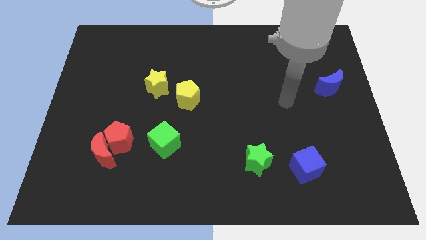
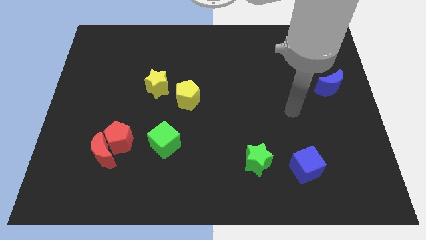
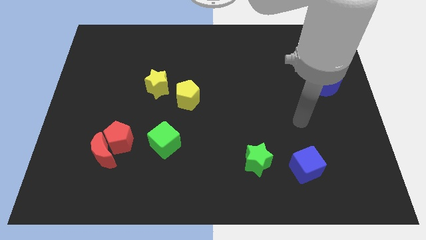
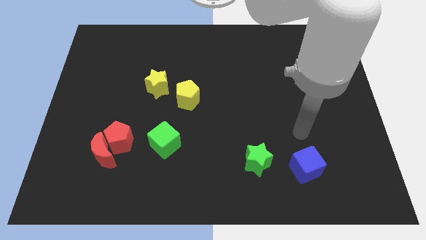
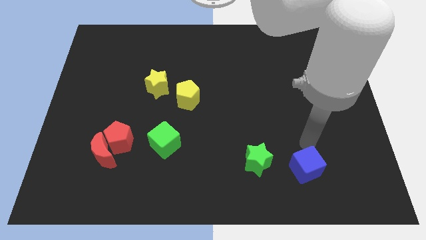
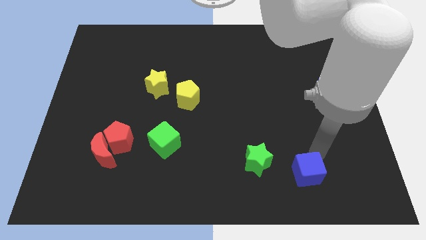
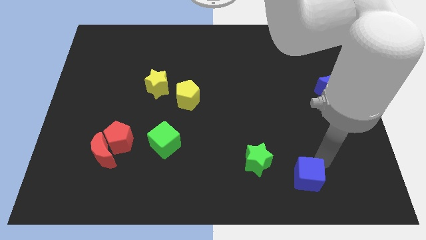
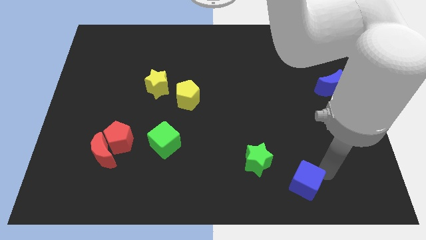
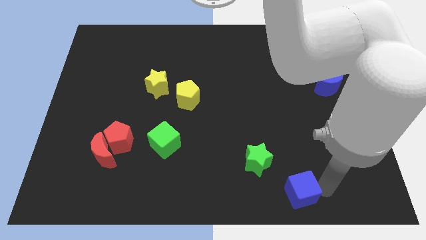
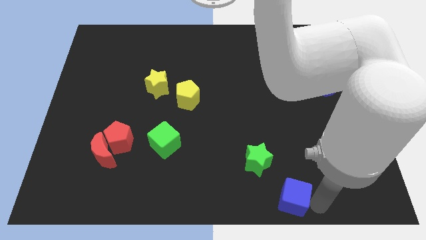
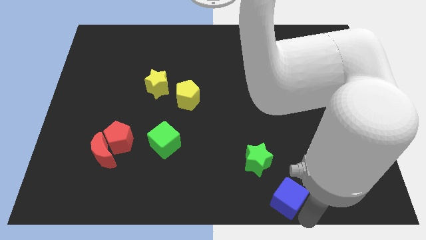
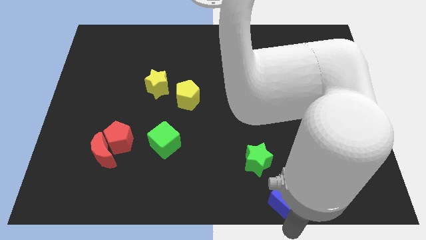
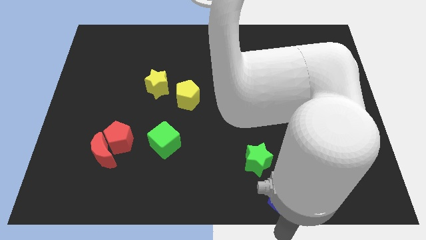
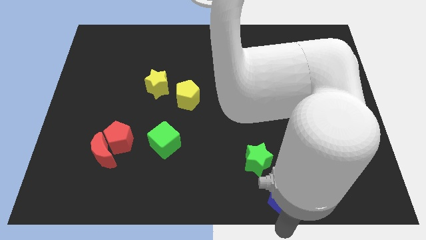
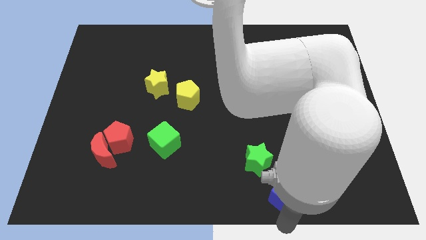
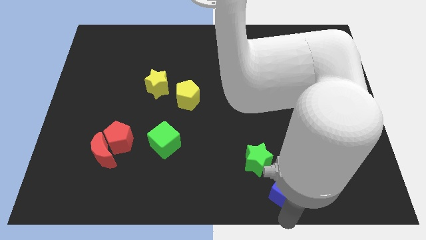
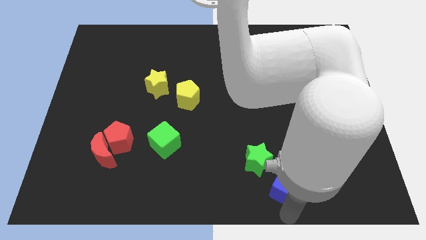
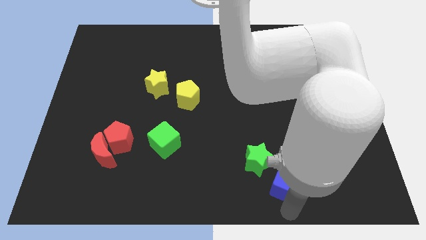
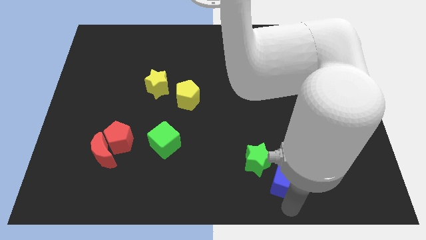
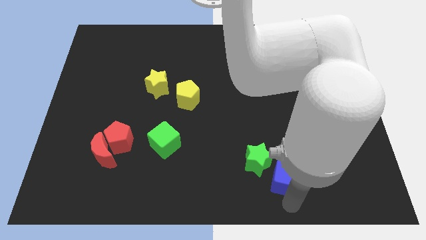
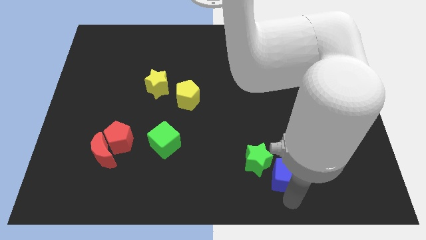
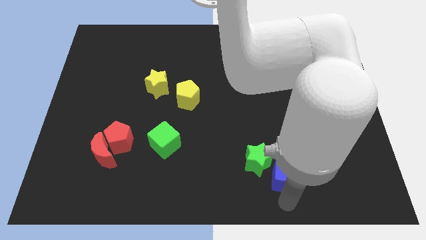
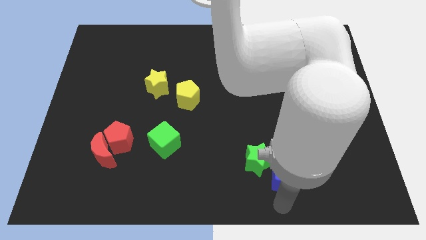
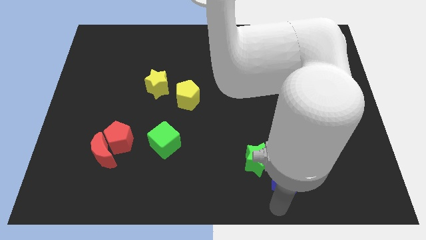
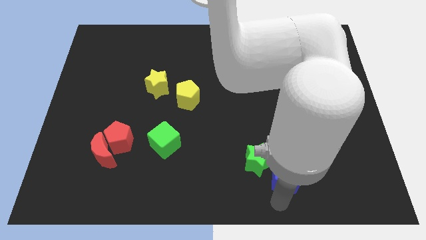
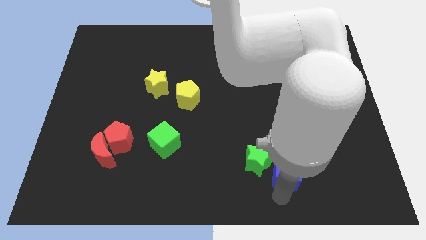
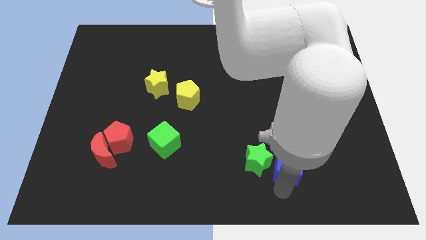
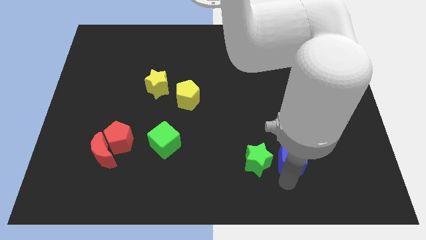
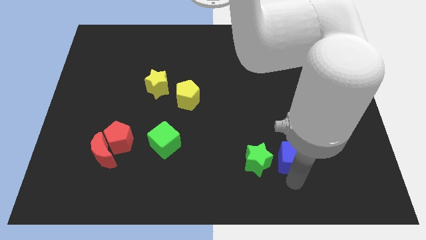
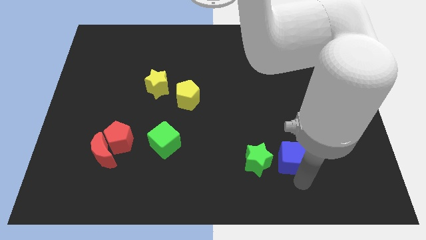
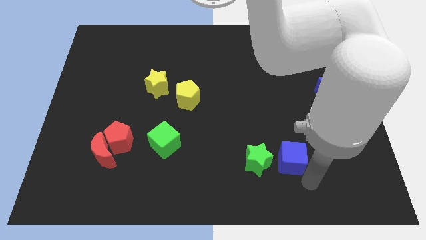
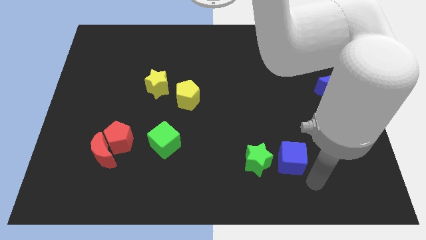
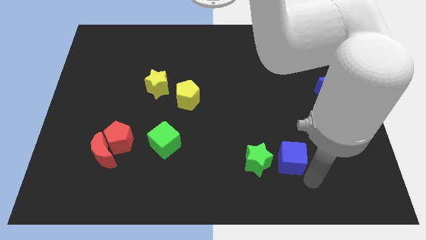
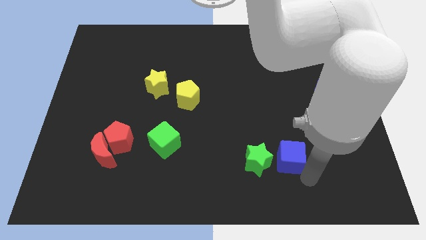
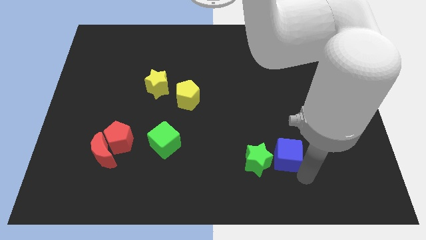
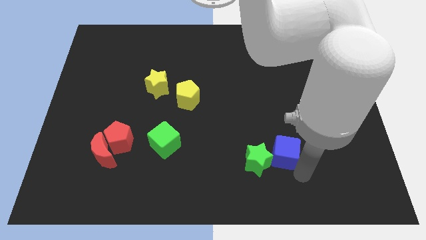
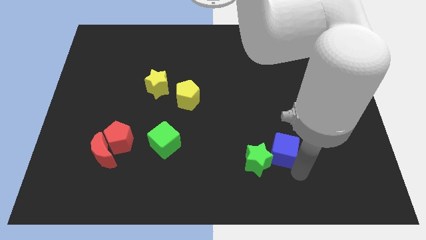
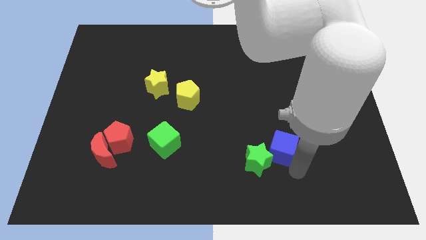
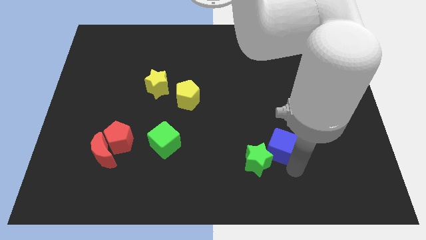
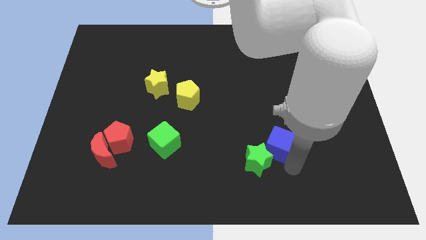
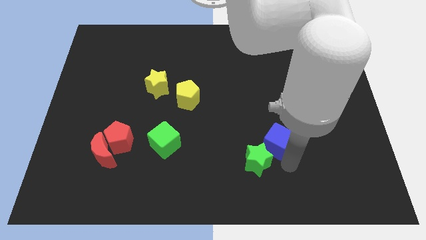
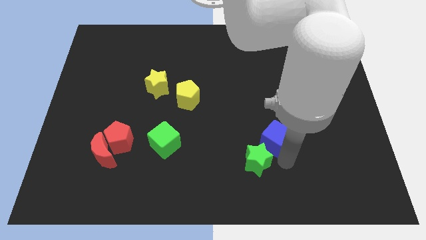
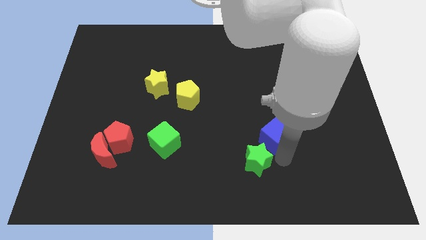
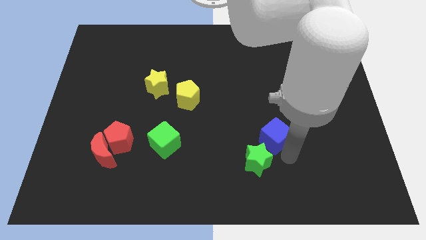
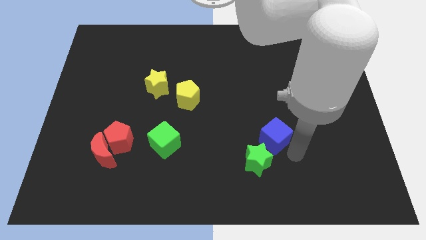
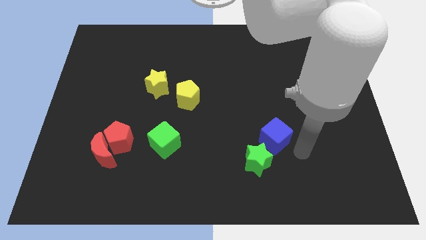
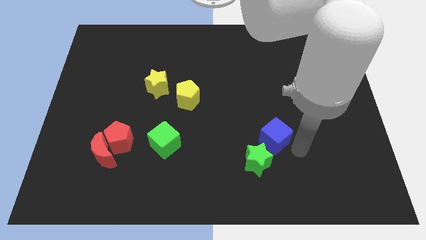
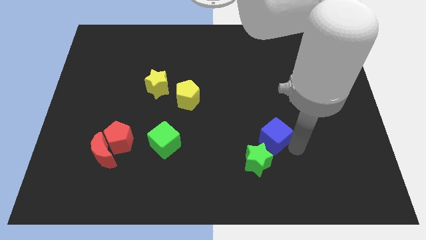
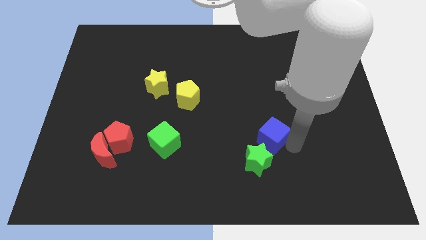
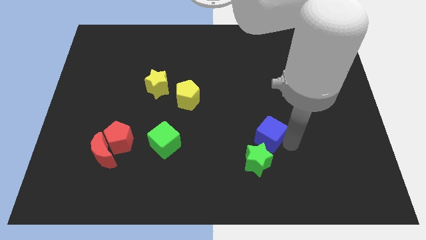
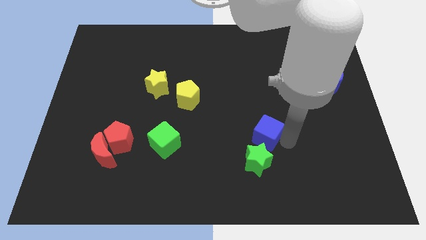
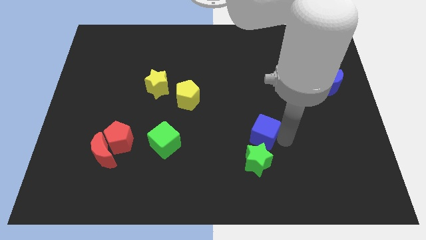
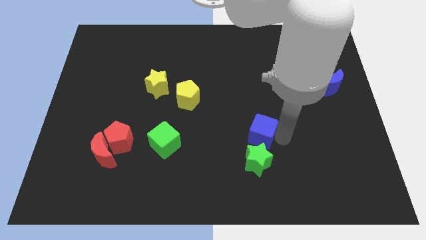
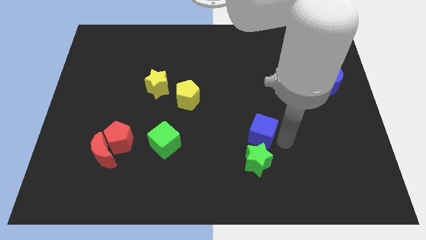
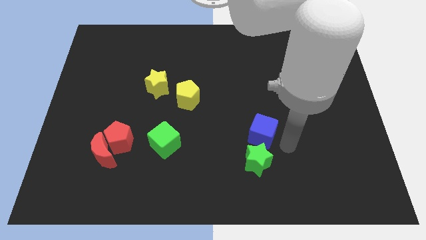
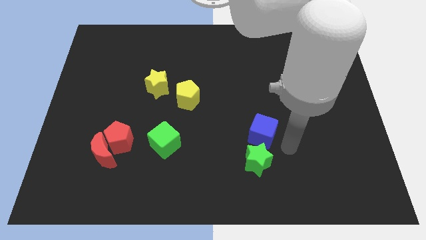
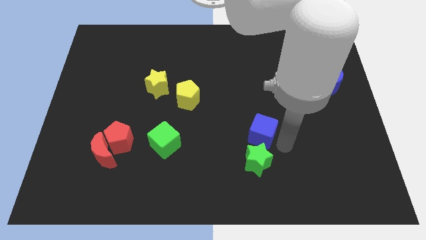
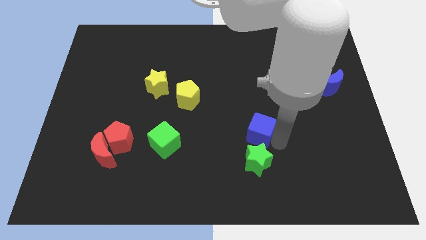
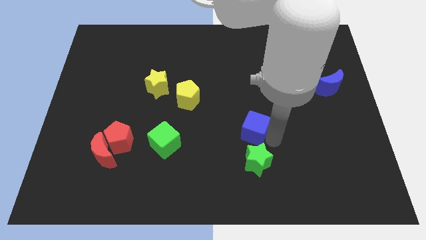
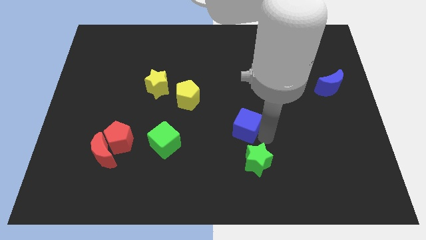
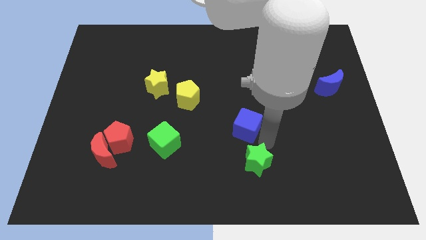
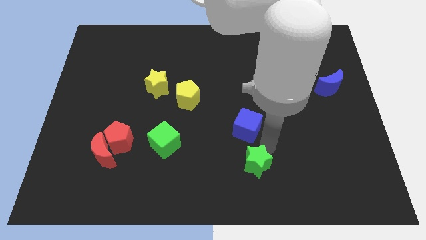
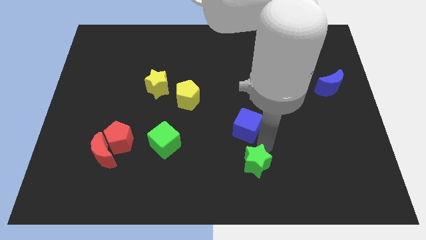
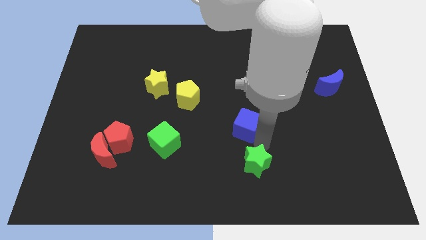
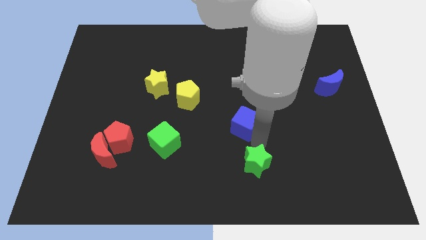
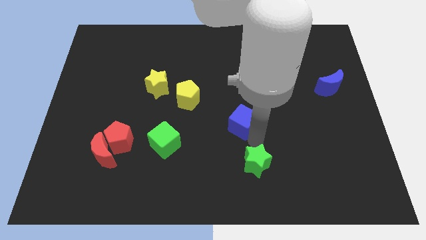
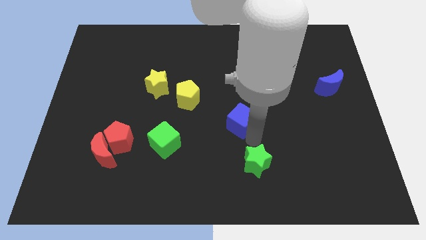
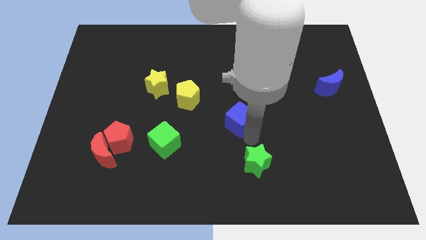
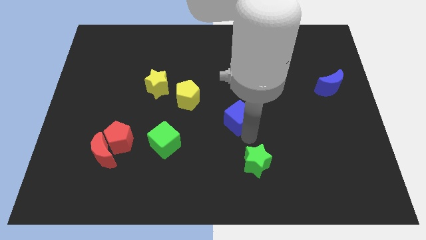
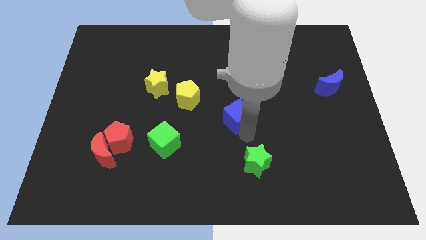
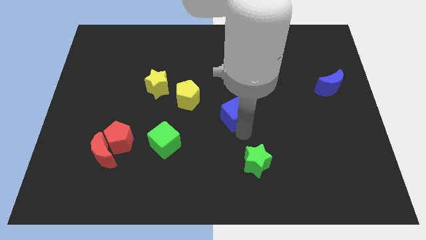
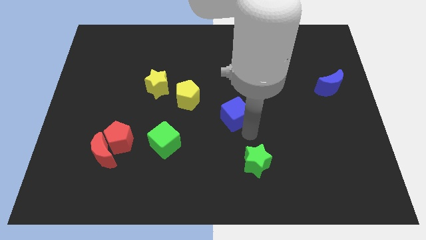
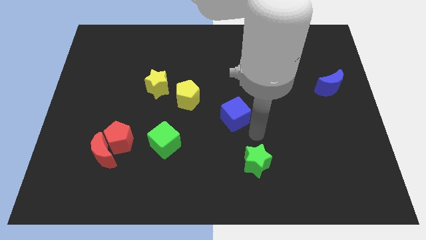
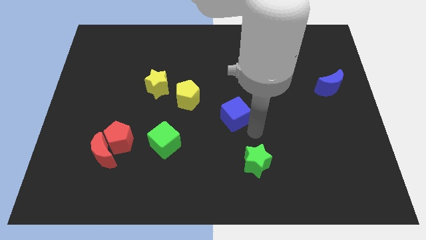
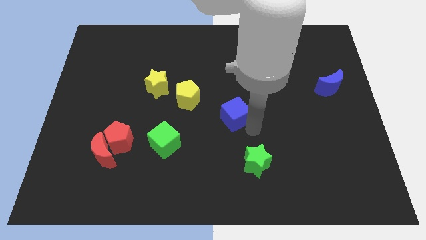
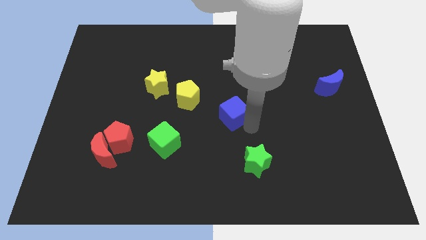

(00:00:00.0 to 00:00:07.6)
move the blue cube up and then left

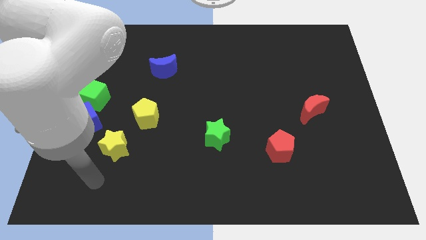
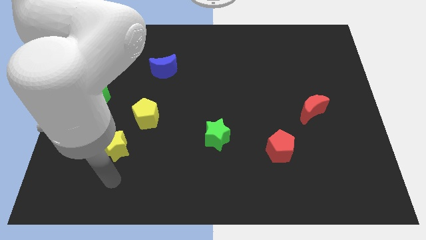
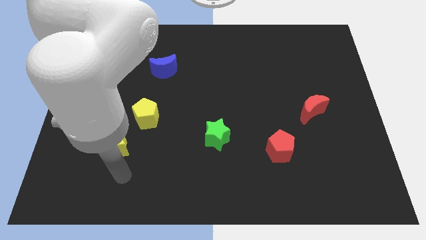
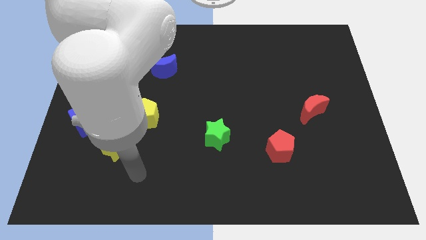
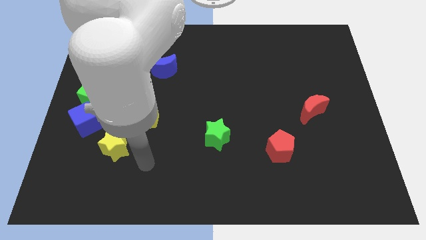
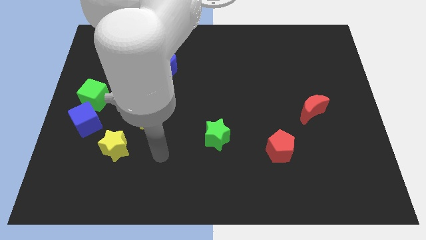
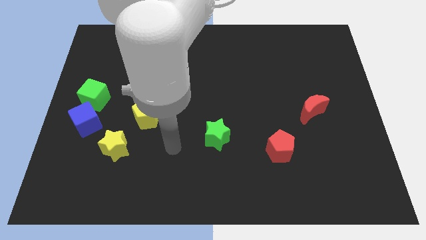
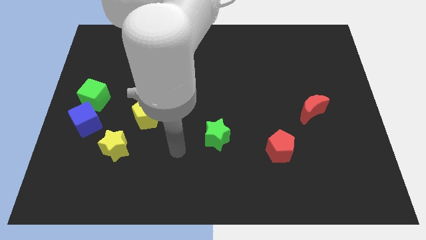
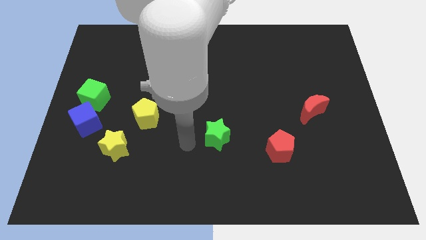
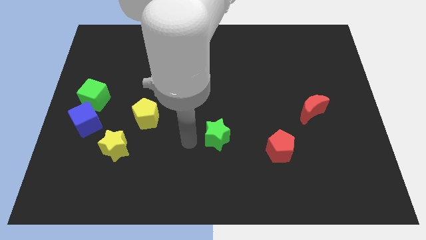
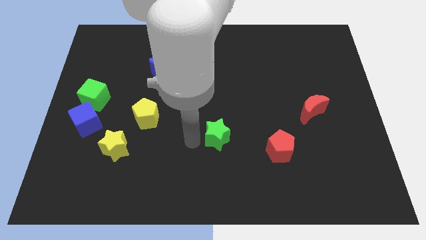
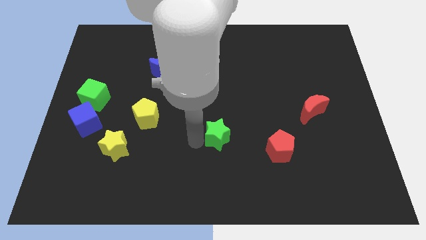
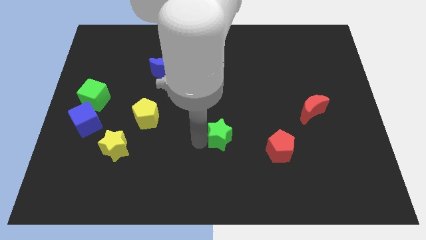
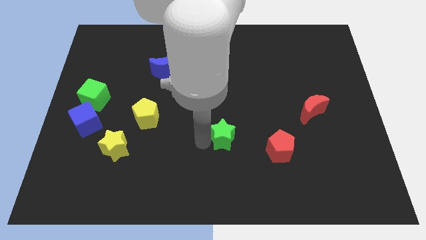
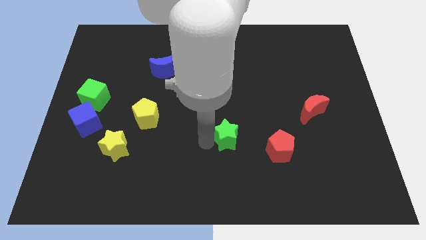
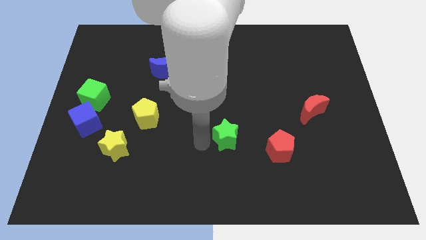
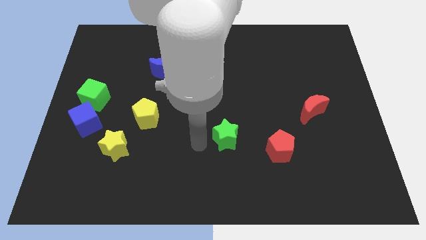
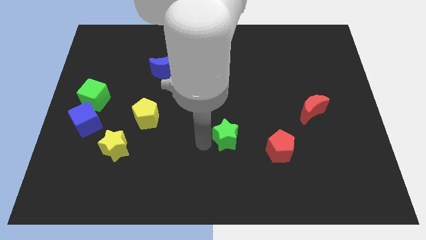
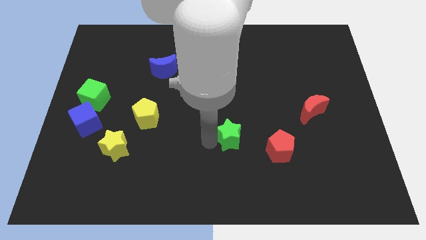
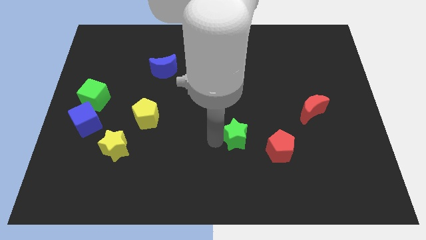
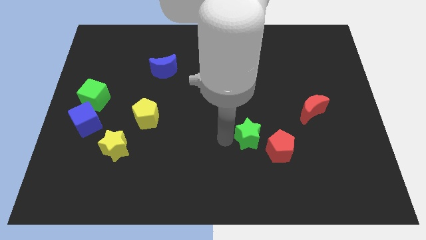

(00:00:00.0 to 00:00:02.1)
slightly slide the green star right
